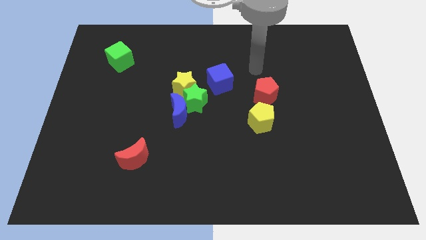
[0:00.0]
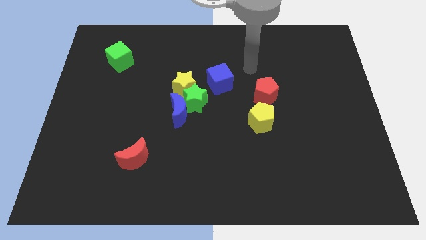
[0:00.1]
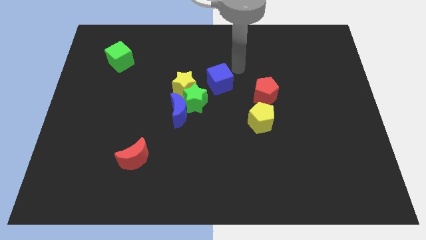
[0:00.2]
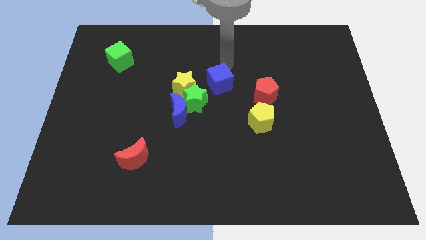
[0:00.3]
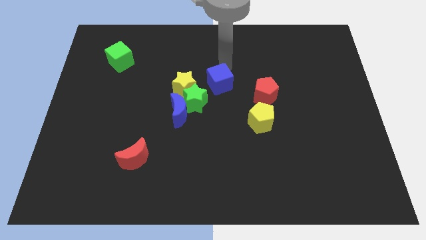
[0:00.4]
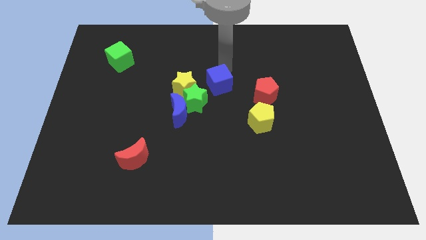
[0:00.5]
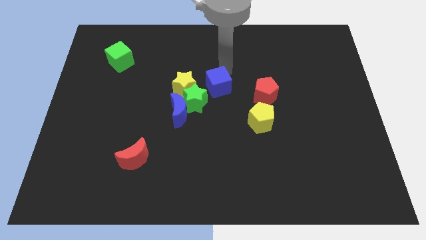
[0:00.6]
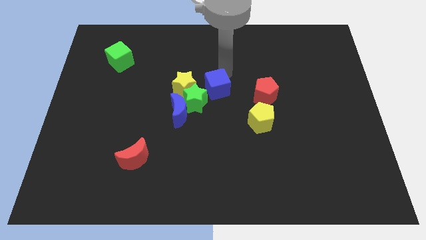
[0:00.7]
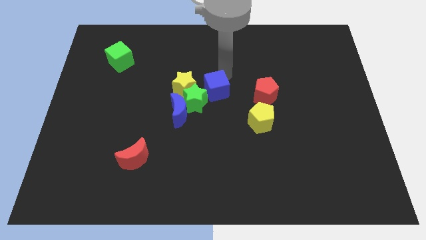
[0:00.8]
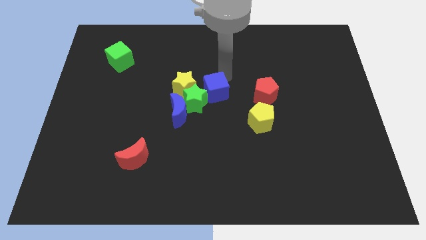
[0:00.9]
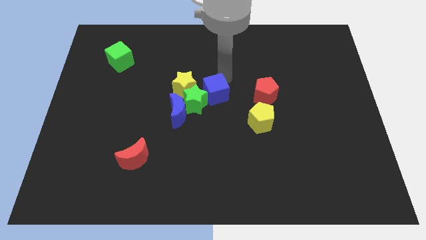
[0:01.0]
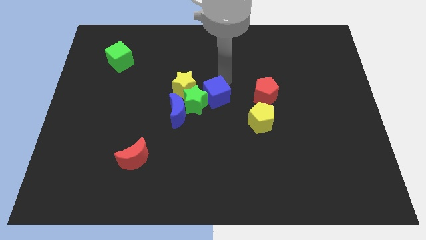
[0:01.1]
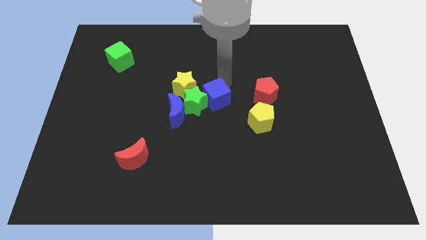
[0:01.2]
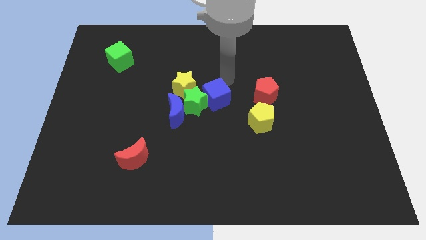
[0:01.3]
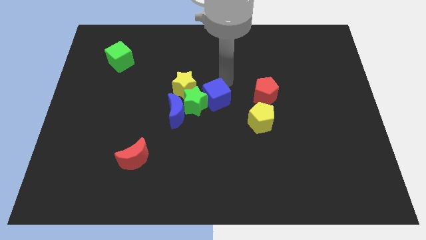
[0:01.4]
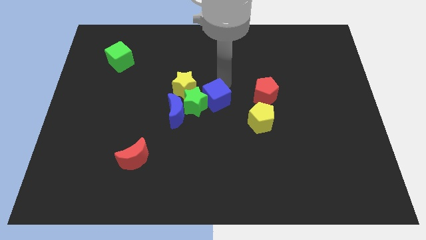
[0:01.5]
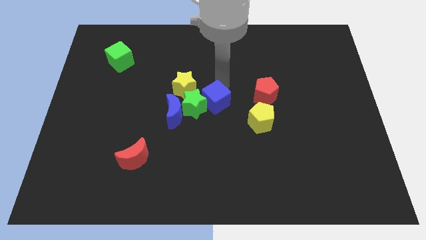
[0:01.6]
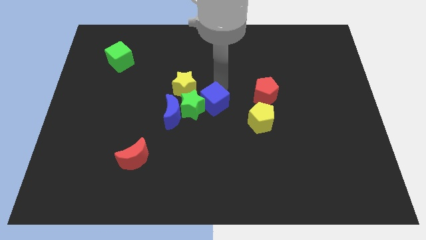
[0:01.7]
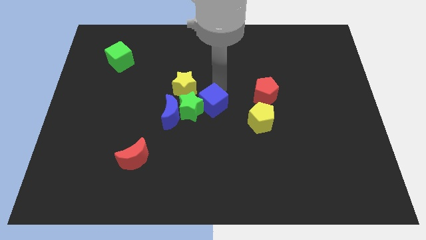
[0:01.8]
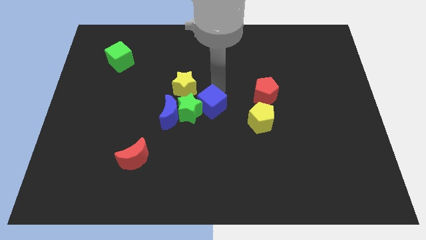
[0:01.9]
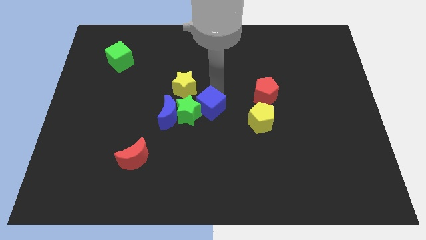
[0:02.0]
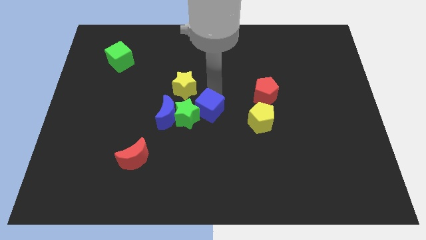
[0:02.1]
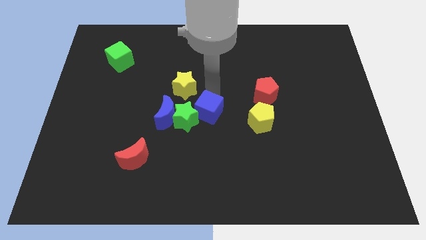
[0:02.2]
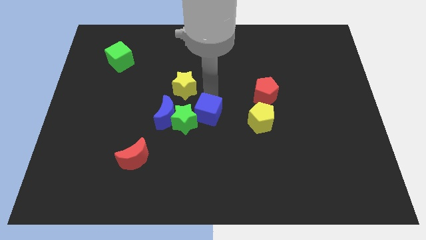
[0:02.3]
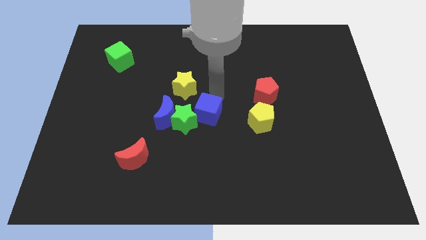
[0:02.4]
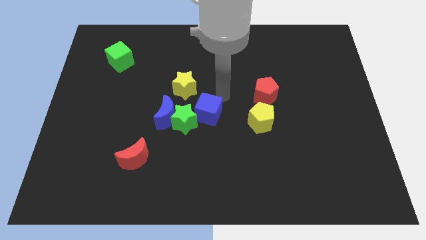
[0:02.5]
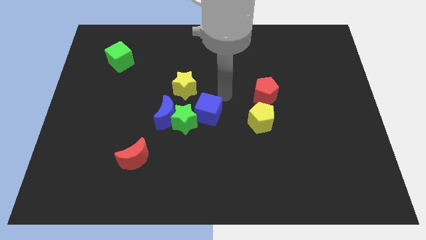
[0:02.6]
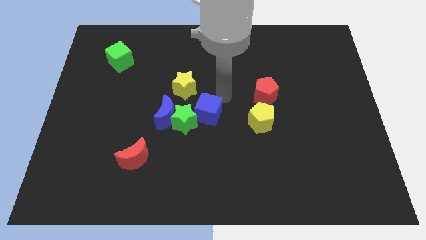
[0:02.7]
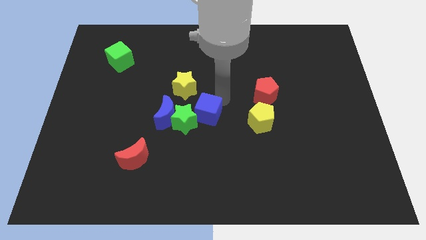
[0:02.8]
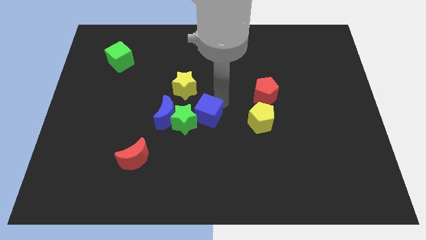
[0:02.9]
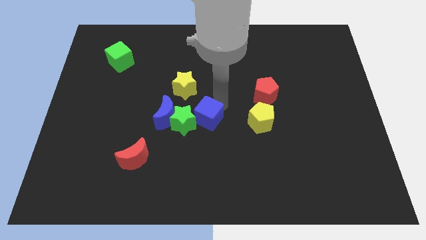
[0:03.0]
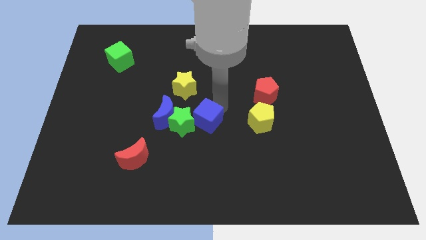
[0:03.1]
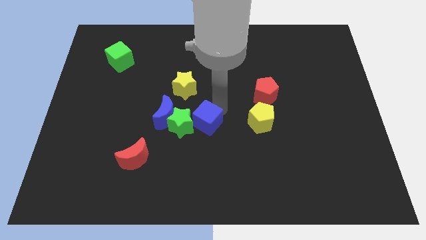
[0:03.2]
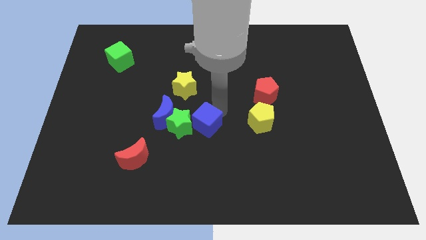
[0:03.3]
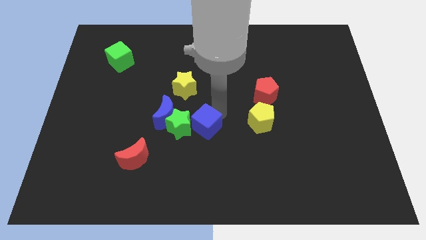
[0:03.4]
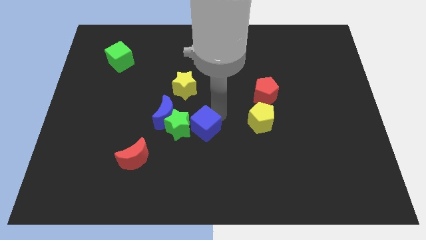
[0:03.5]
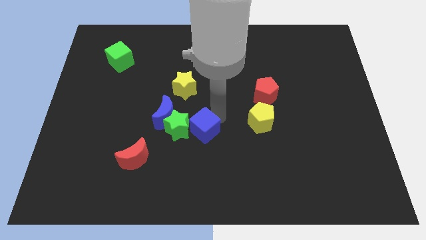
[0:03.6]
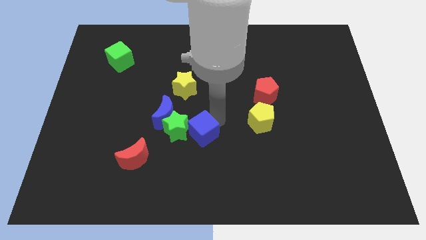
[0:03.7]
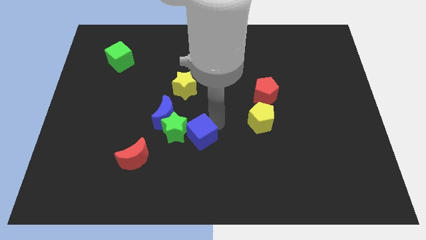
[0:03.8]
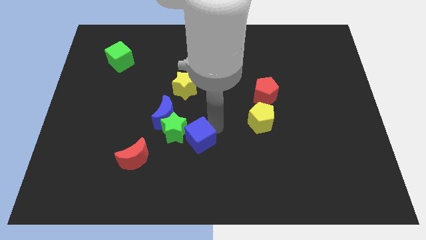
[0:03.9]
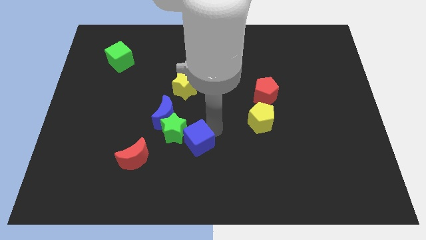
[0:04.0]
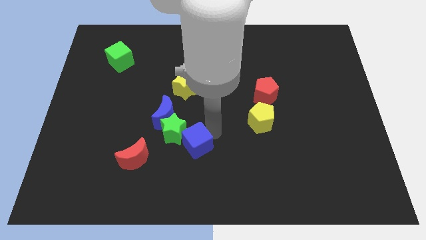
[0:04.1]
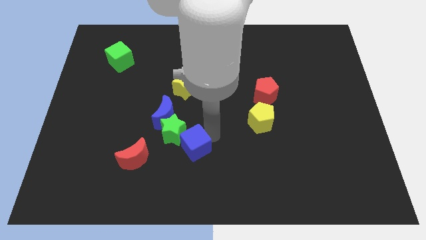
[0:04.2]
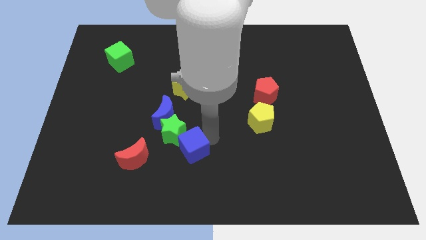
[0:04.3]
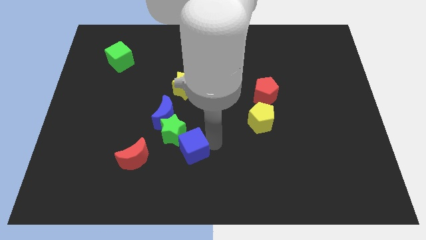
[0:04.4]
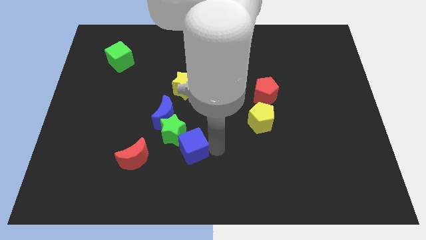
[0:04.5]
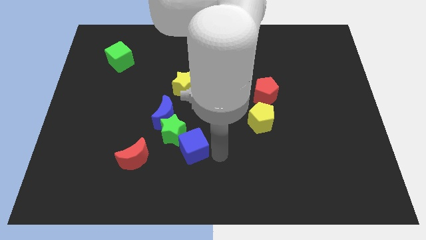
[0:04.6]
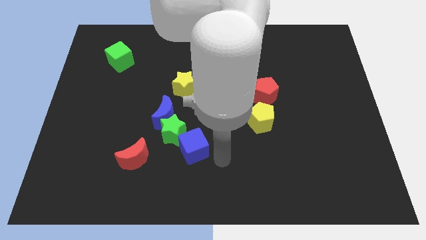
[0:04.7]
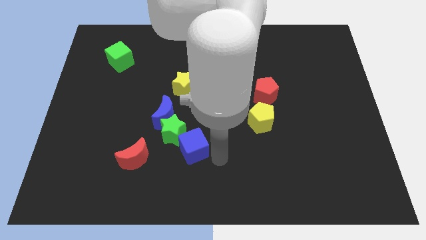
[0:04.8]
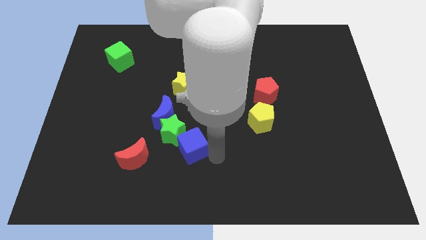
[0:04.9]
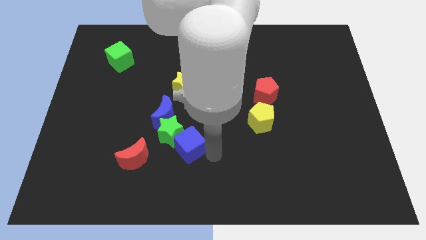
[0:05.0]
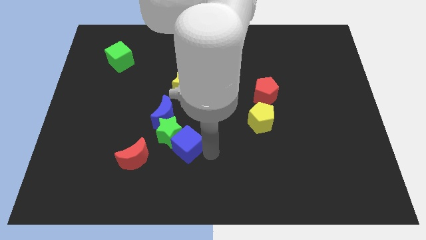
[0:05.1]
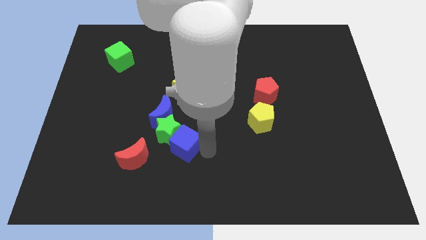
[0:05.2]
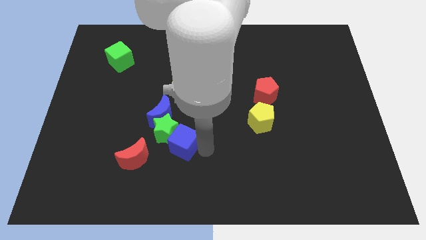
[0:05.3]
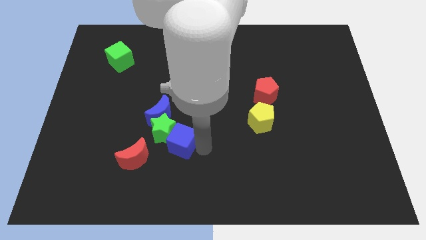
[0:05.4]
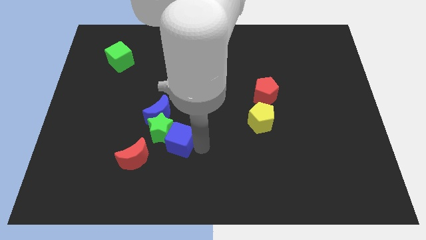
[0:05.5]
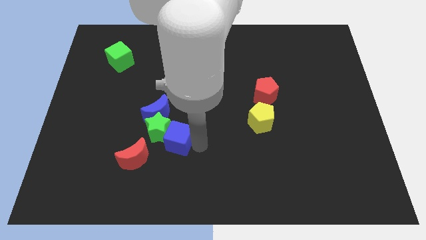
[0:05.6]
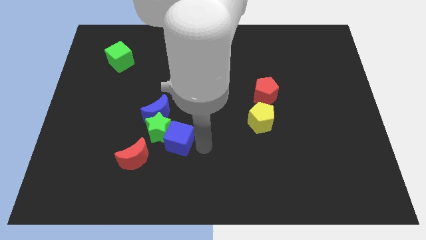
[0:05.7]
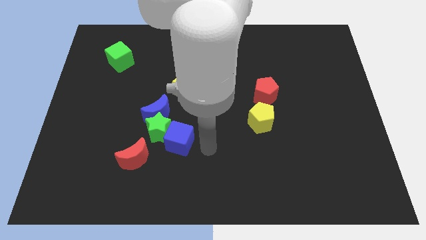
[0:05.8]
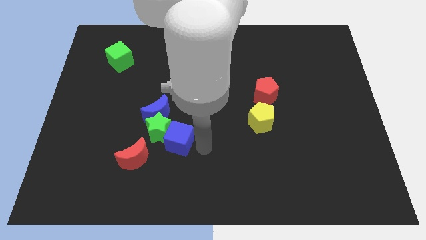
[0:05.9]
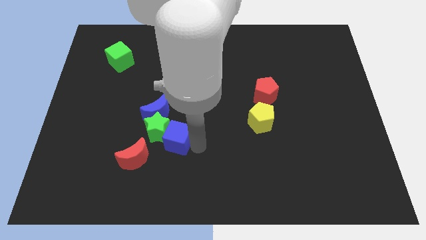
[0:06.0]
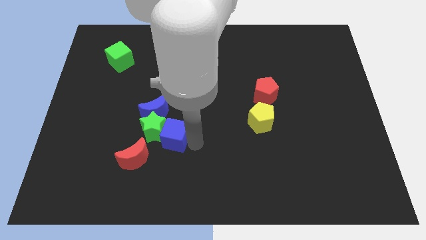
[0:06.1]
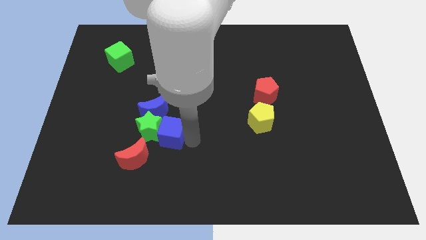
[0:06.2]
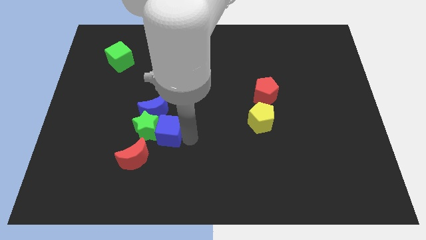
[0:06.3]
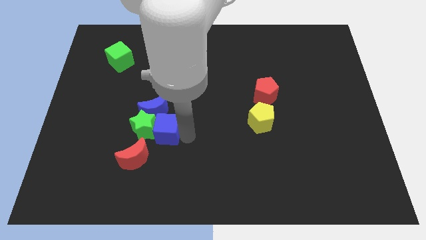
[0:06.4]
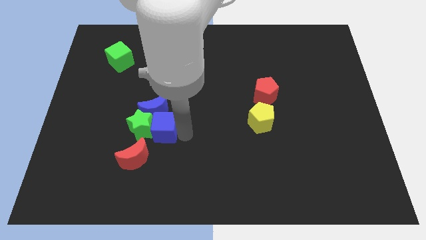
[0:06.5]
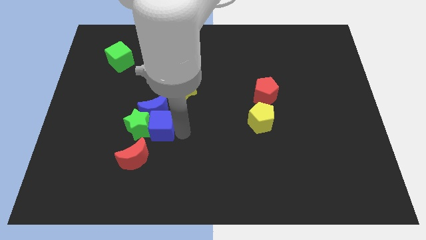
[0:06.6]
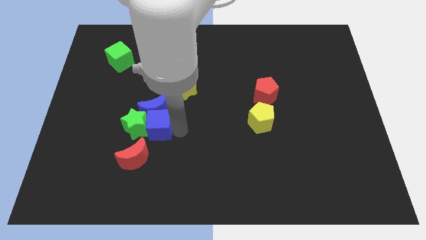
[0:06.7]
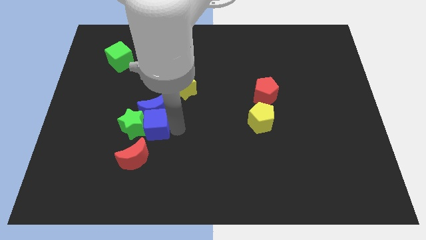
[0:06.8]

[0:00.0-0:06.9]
move the blue cube downwards and to the left diagonally

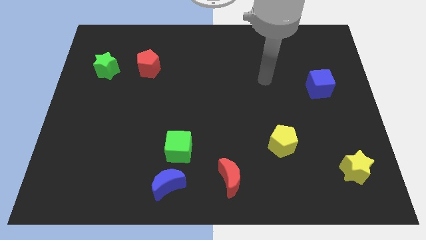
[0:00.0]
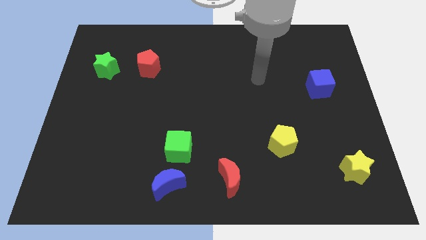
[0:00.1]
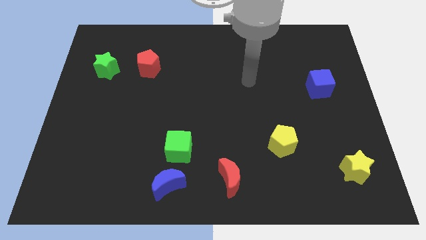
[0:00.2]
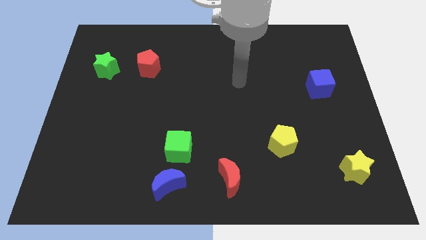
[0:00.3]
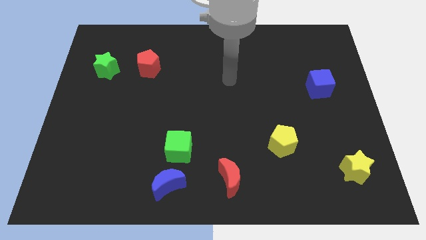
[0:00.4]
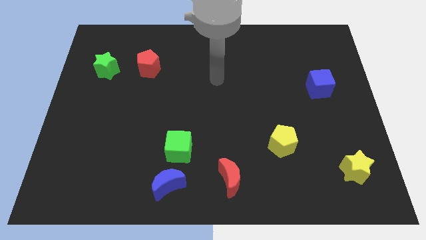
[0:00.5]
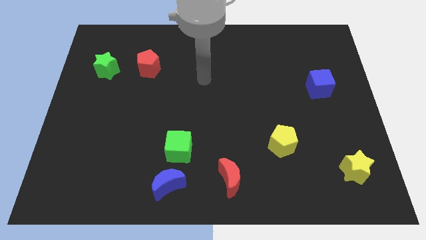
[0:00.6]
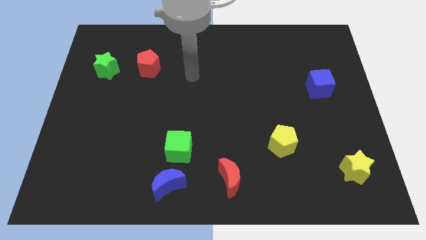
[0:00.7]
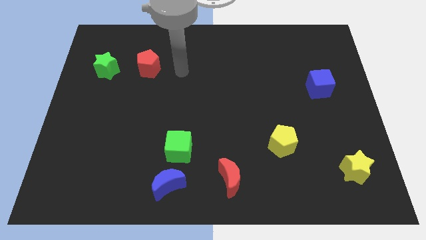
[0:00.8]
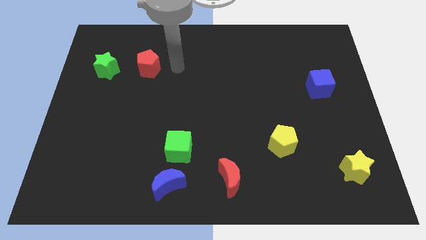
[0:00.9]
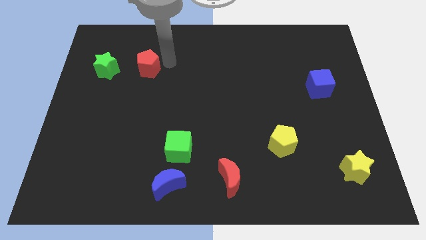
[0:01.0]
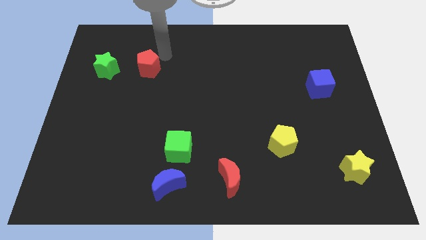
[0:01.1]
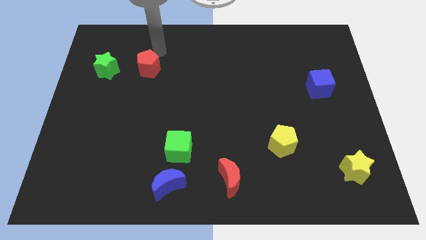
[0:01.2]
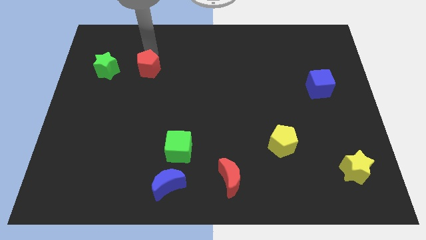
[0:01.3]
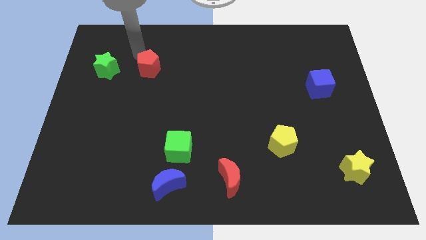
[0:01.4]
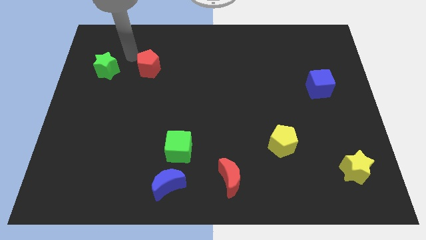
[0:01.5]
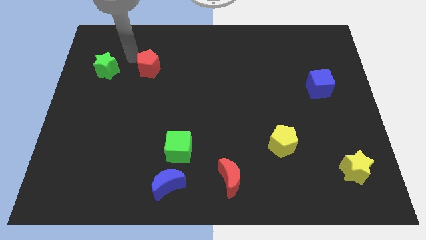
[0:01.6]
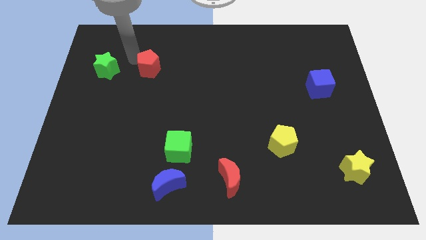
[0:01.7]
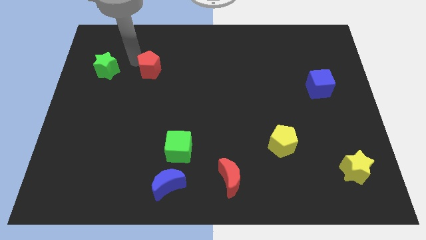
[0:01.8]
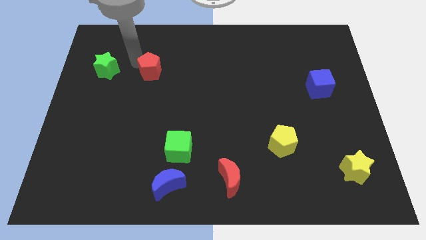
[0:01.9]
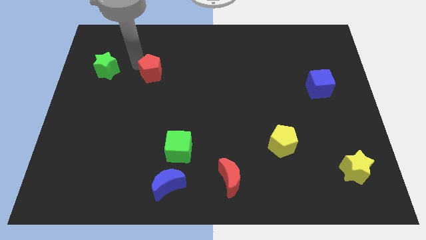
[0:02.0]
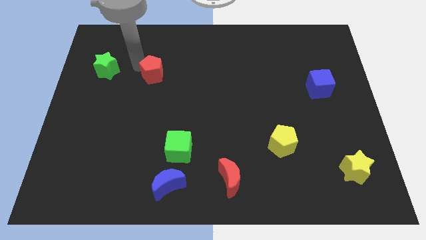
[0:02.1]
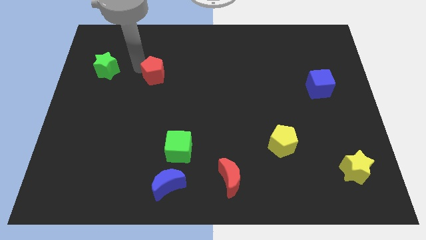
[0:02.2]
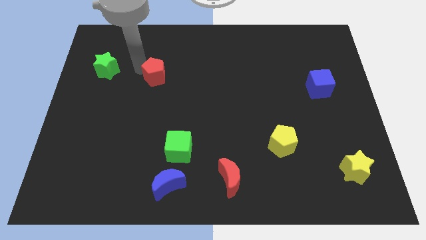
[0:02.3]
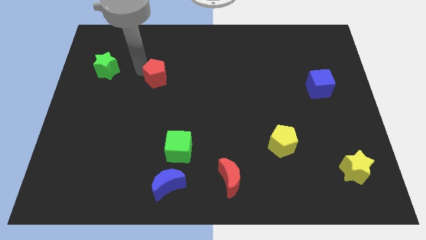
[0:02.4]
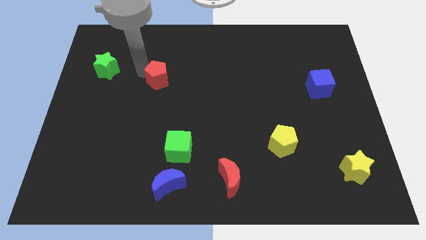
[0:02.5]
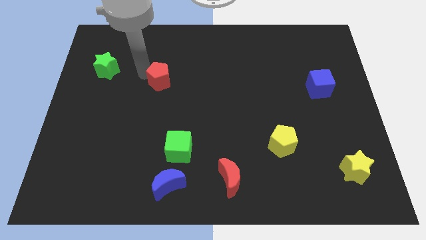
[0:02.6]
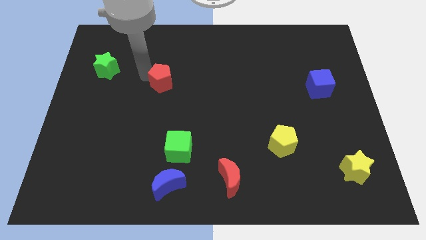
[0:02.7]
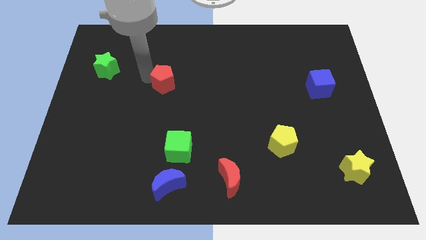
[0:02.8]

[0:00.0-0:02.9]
move the red pentagon a bit diagonally downwards and to the right
